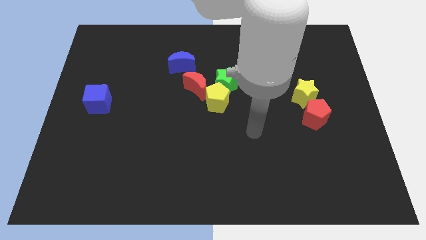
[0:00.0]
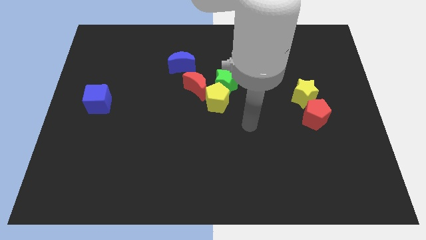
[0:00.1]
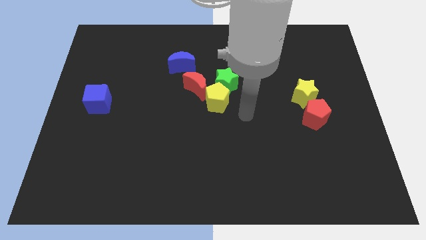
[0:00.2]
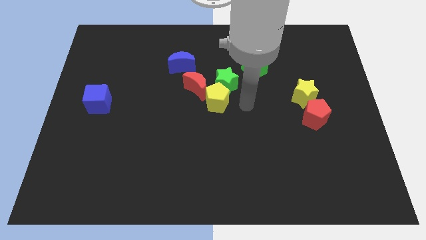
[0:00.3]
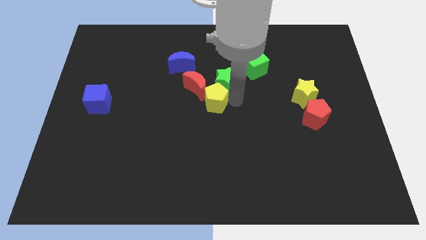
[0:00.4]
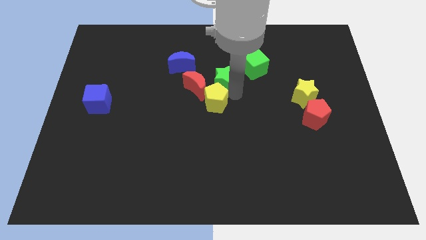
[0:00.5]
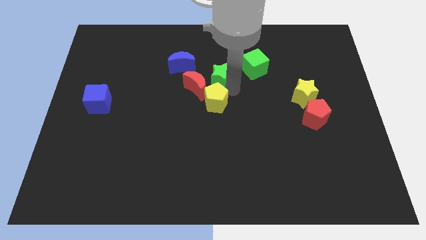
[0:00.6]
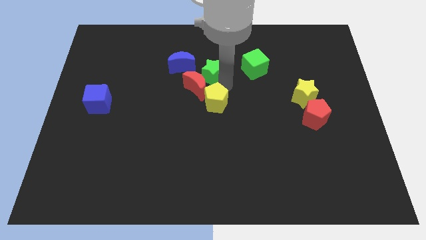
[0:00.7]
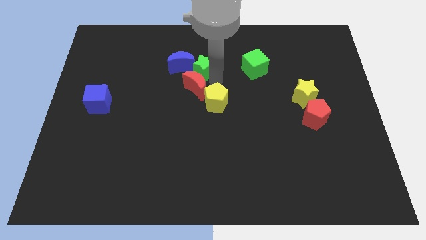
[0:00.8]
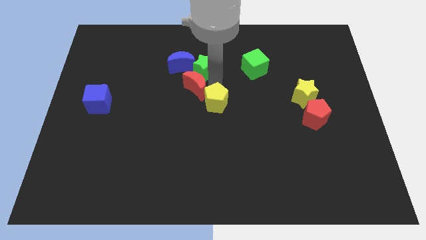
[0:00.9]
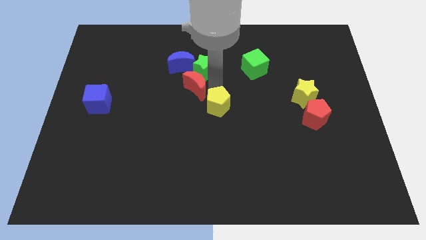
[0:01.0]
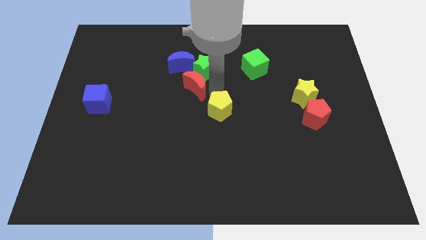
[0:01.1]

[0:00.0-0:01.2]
pull the yellow pentagon apart from the green star and red moon

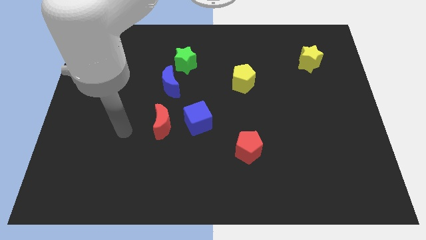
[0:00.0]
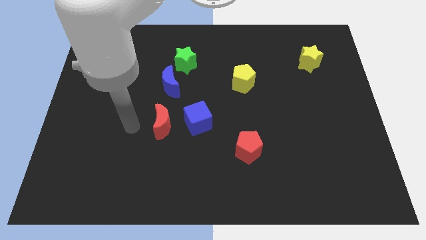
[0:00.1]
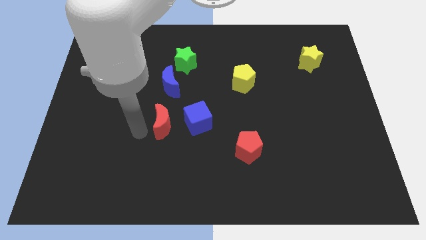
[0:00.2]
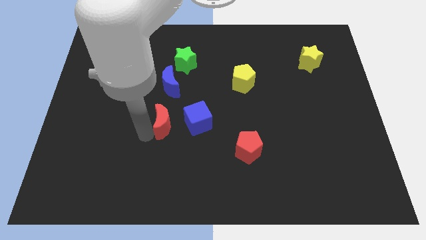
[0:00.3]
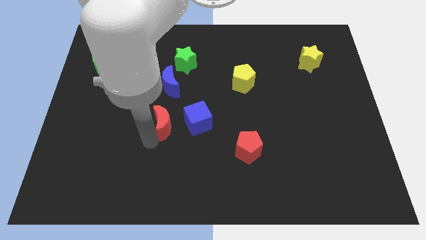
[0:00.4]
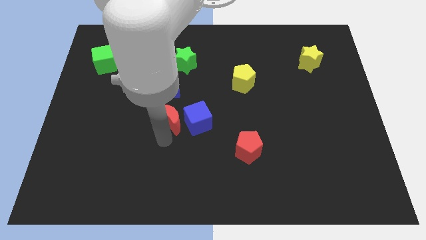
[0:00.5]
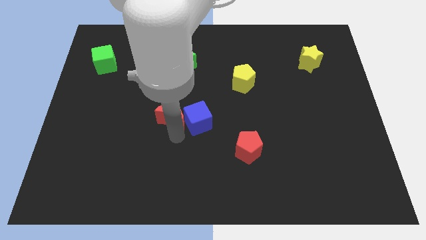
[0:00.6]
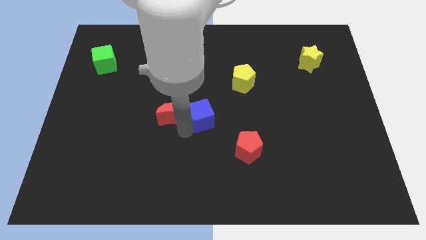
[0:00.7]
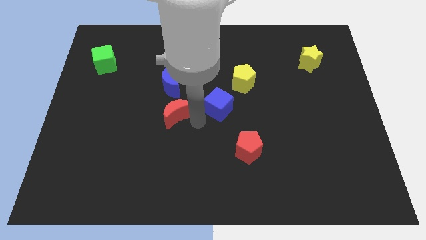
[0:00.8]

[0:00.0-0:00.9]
separate the red moon from the blue cube

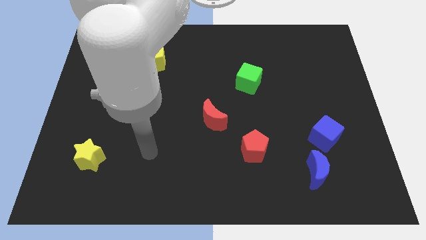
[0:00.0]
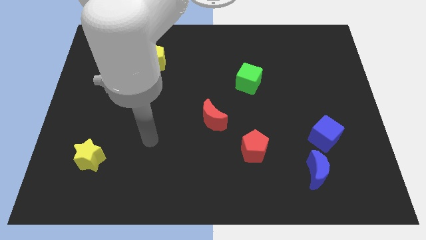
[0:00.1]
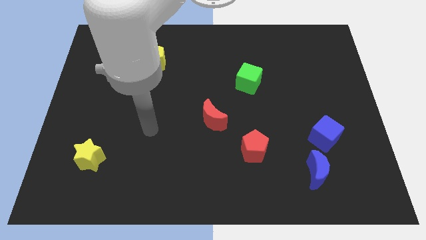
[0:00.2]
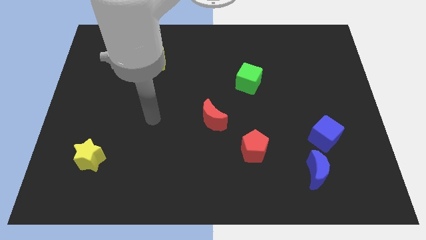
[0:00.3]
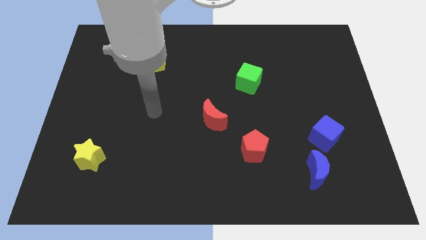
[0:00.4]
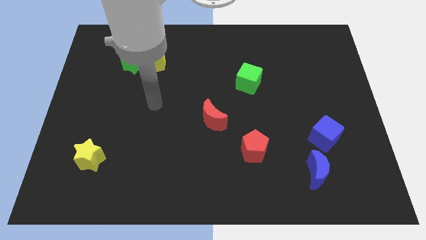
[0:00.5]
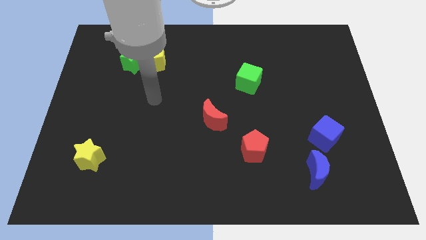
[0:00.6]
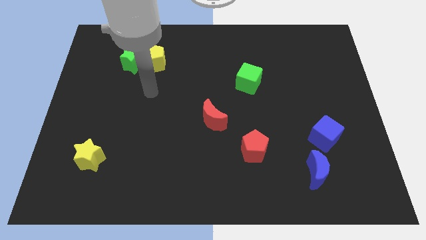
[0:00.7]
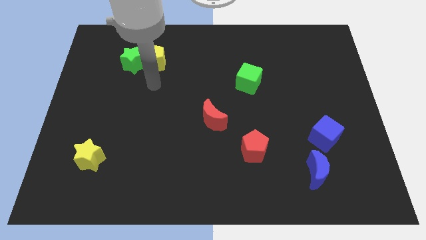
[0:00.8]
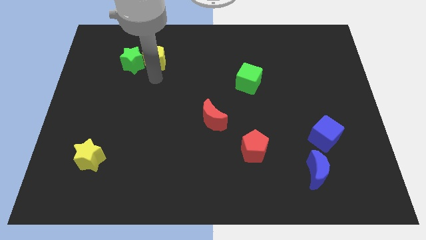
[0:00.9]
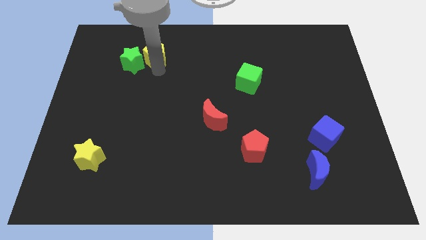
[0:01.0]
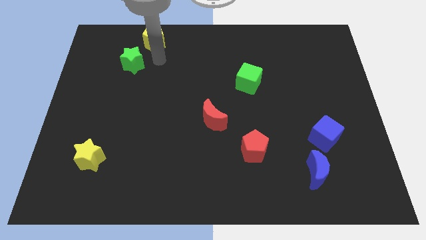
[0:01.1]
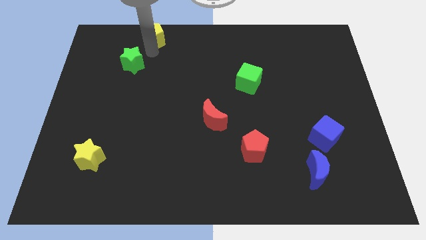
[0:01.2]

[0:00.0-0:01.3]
pull the green star apart from the yellow pentagon

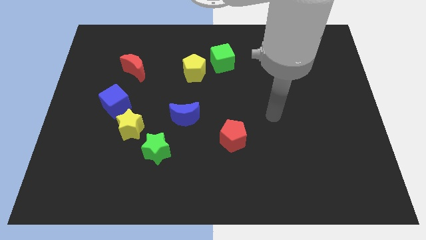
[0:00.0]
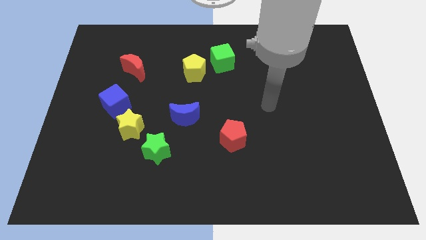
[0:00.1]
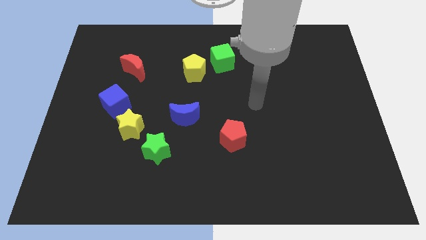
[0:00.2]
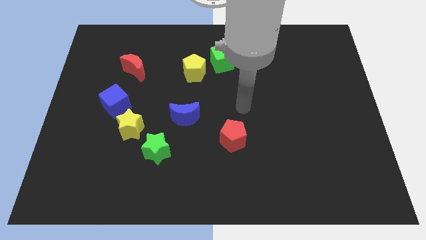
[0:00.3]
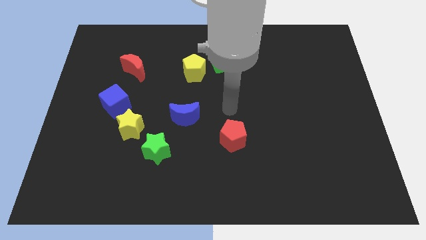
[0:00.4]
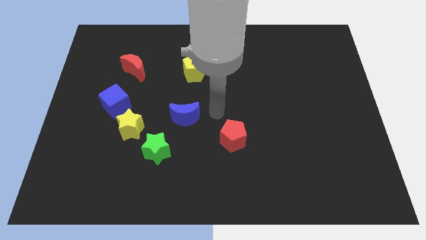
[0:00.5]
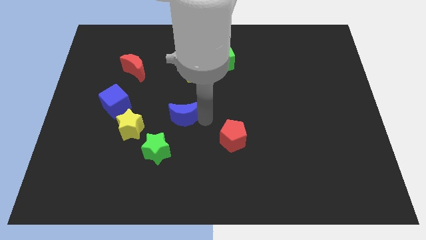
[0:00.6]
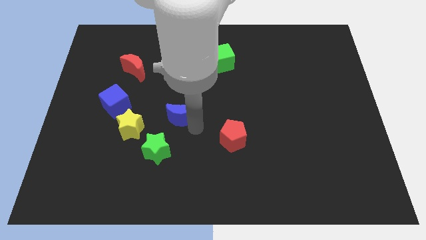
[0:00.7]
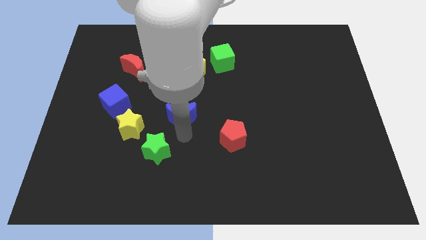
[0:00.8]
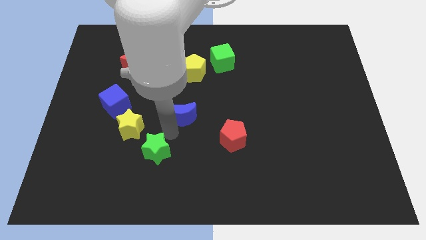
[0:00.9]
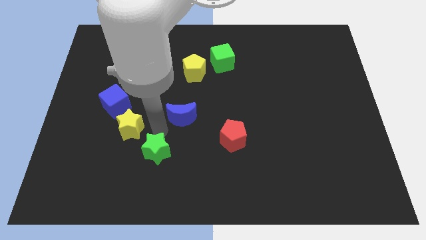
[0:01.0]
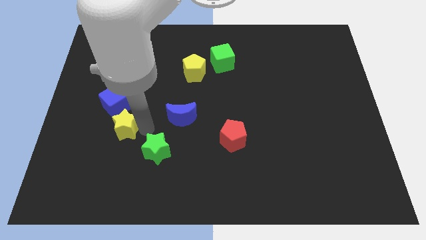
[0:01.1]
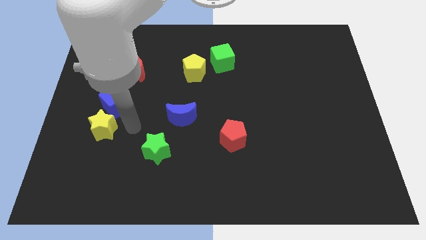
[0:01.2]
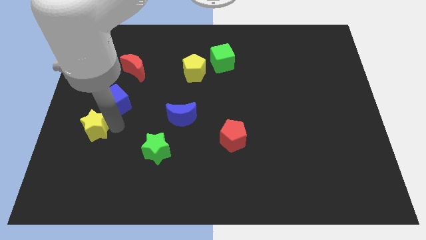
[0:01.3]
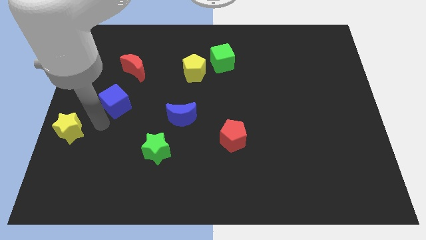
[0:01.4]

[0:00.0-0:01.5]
pull the blue cube apart from the yellow star

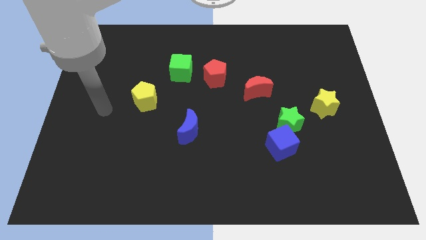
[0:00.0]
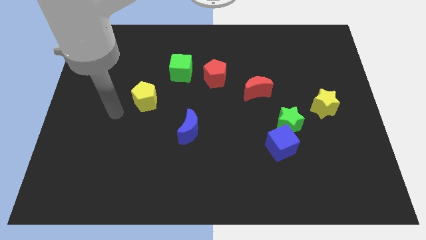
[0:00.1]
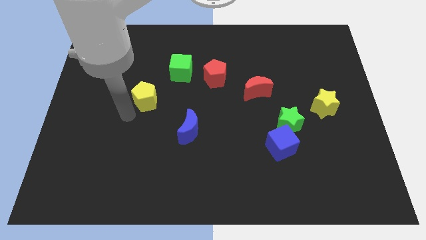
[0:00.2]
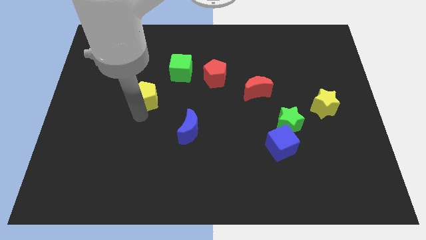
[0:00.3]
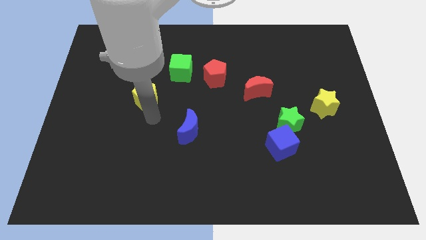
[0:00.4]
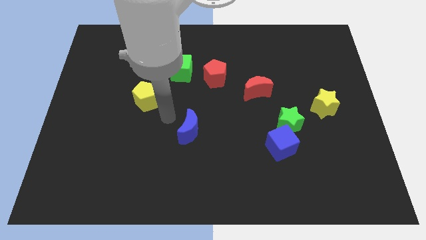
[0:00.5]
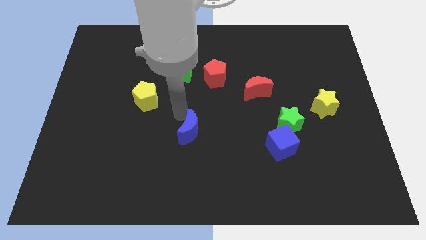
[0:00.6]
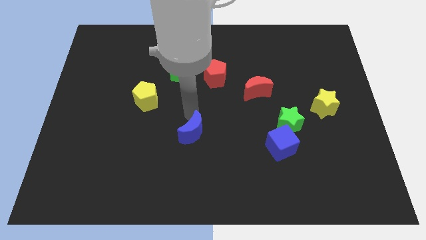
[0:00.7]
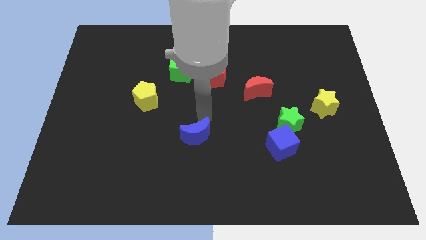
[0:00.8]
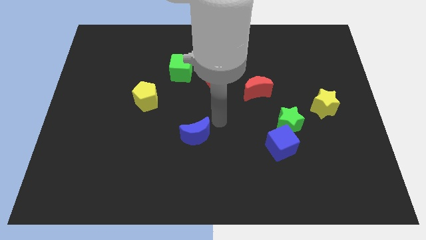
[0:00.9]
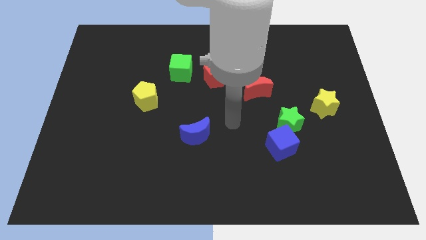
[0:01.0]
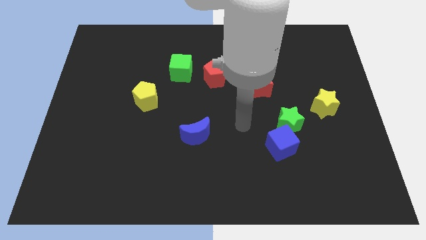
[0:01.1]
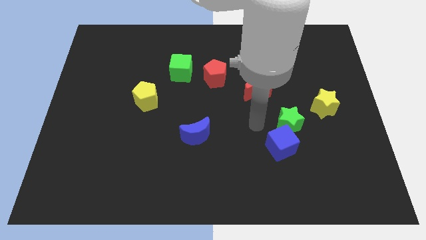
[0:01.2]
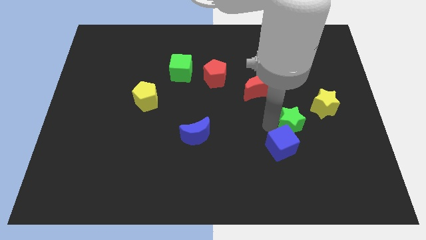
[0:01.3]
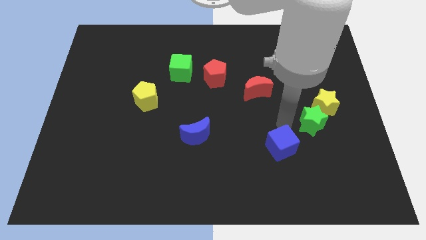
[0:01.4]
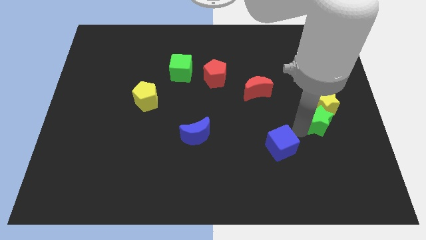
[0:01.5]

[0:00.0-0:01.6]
pull the blue cube apart from the green star

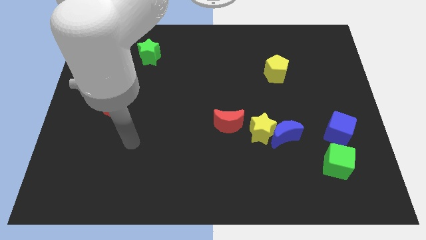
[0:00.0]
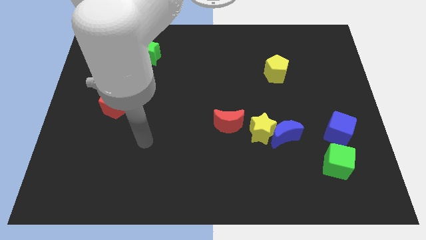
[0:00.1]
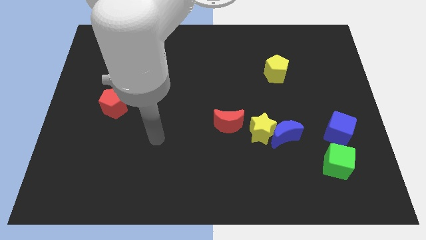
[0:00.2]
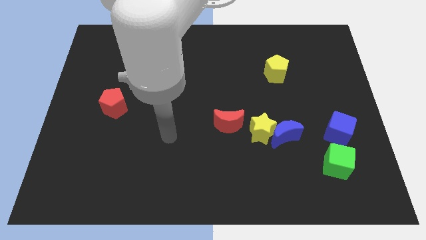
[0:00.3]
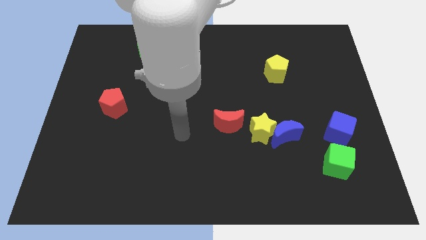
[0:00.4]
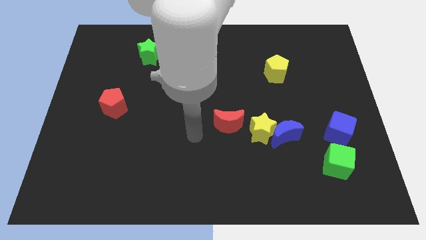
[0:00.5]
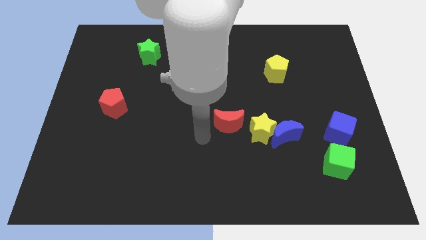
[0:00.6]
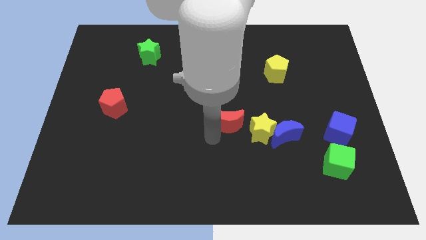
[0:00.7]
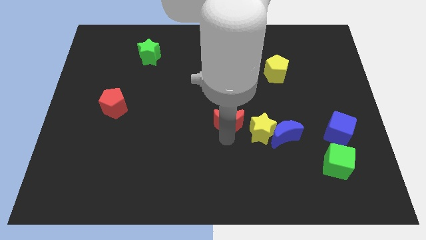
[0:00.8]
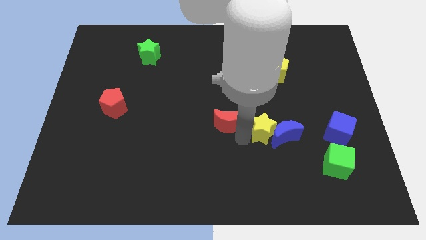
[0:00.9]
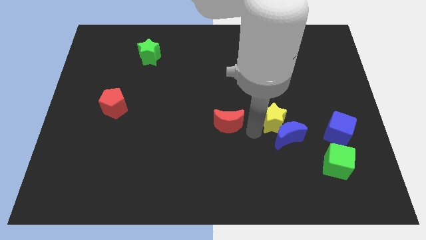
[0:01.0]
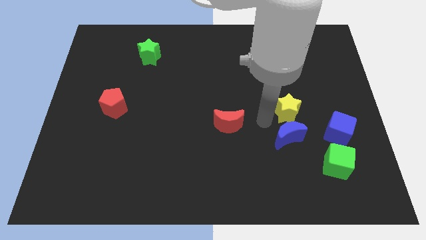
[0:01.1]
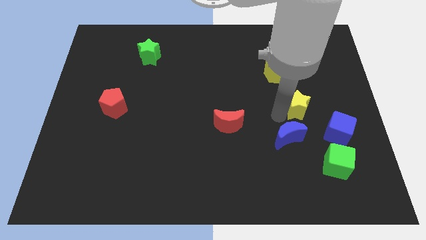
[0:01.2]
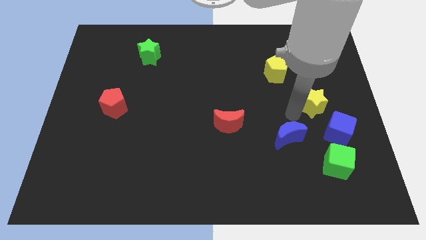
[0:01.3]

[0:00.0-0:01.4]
move the blue moon away from the yellow star

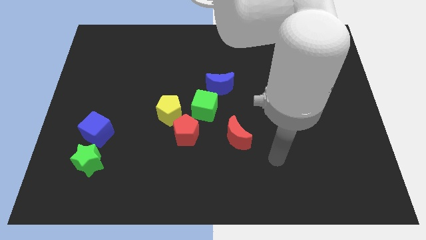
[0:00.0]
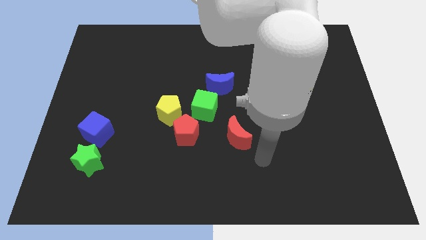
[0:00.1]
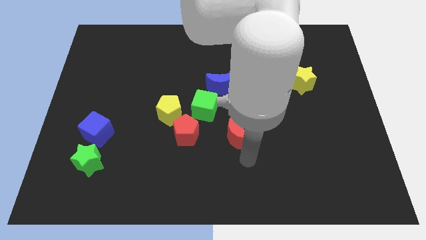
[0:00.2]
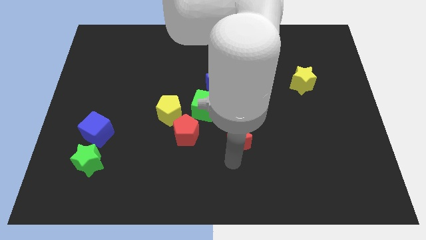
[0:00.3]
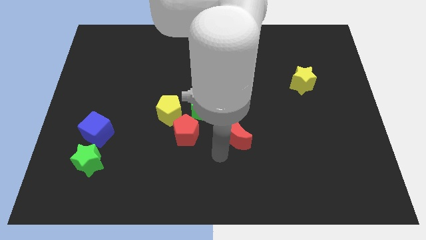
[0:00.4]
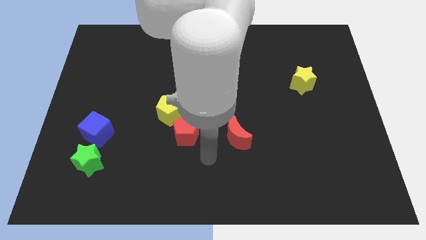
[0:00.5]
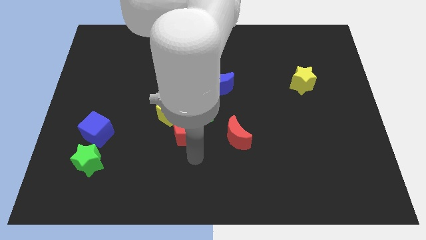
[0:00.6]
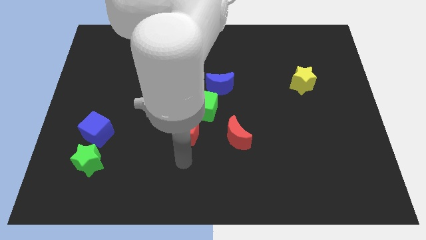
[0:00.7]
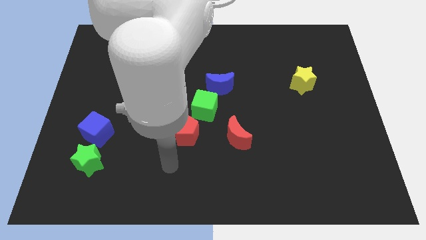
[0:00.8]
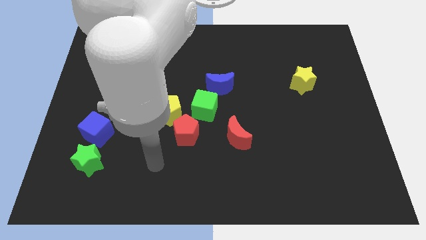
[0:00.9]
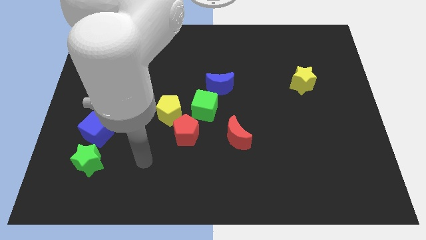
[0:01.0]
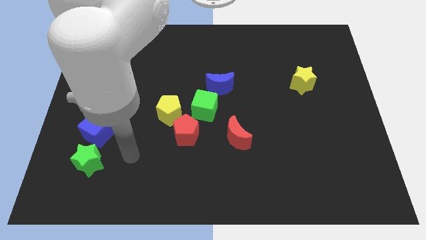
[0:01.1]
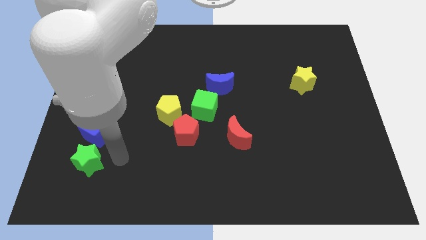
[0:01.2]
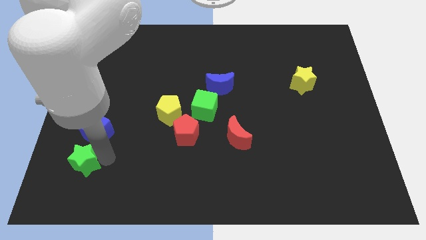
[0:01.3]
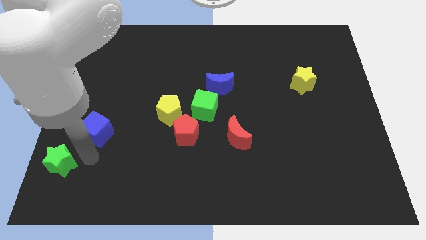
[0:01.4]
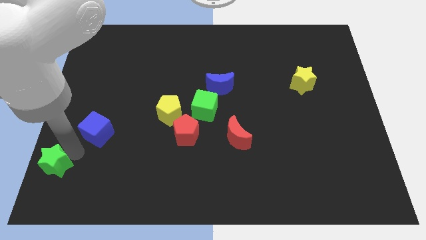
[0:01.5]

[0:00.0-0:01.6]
move the blue cube away from the green star
